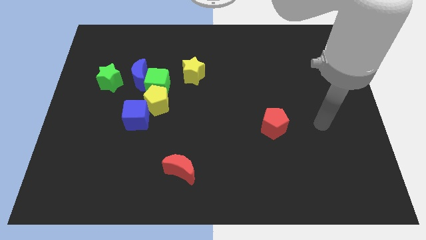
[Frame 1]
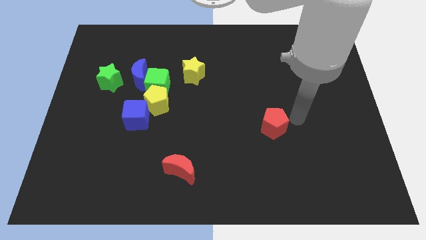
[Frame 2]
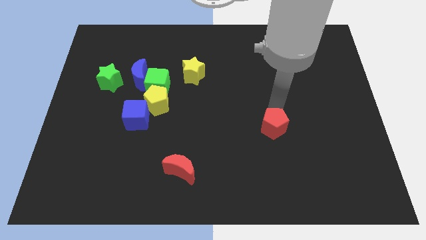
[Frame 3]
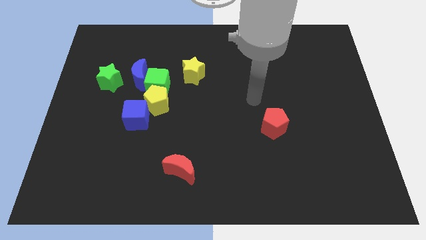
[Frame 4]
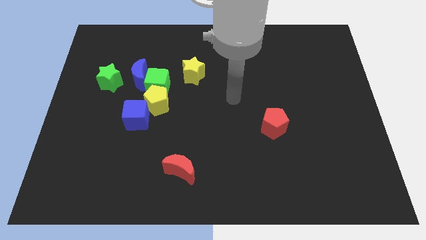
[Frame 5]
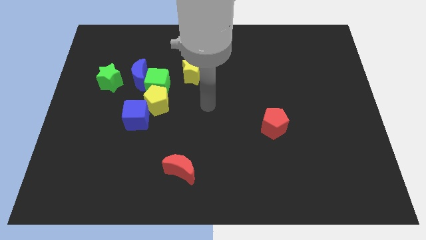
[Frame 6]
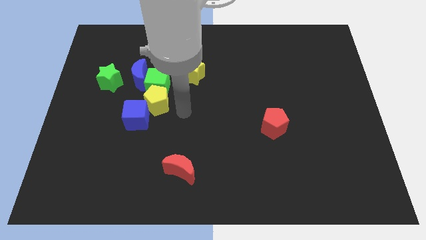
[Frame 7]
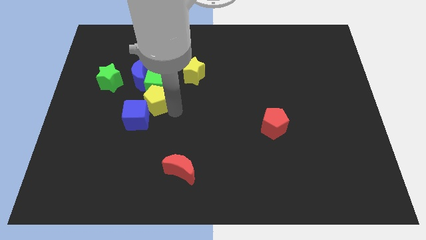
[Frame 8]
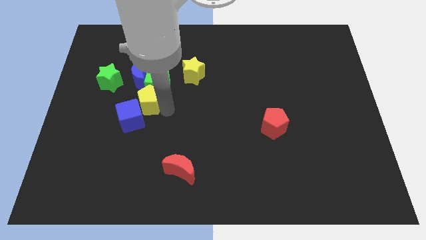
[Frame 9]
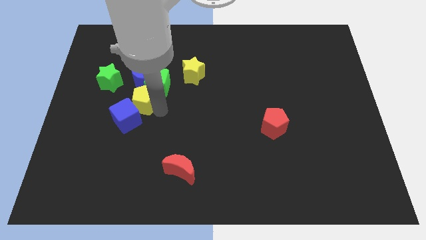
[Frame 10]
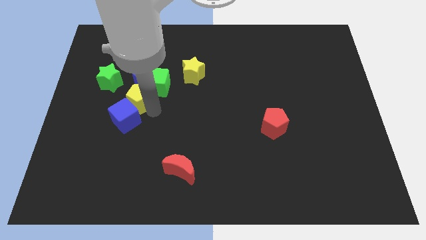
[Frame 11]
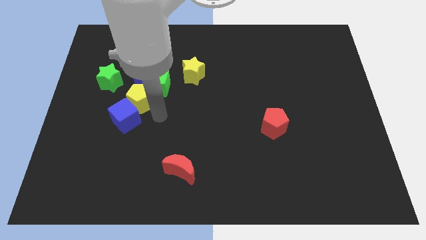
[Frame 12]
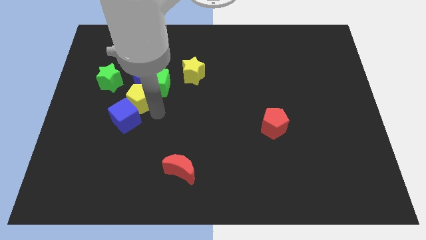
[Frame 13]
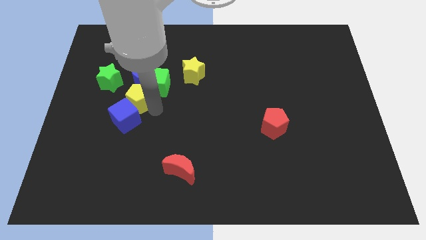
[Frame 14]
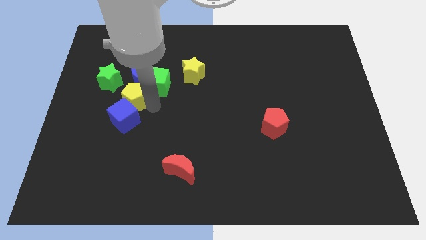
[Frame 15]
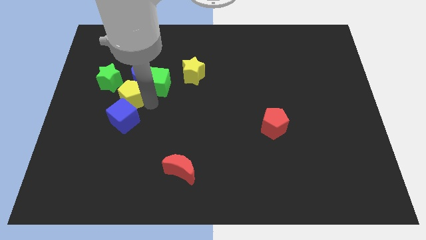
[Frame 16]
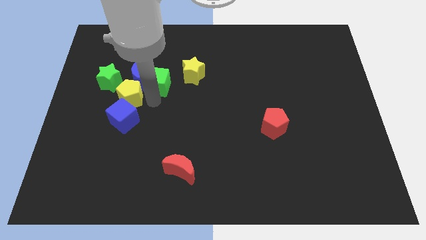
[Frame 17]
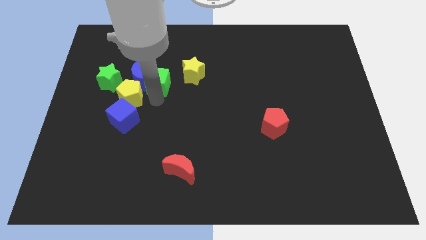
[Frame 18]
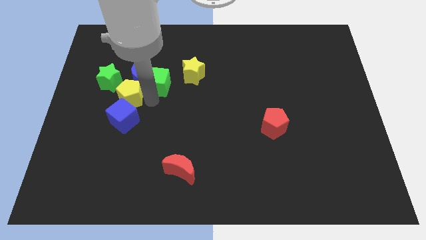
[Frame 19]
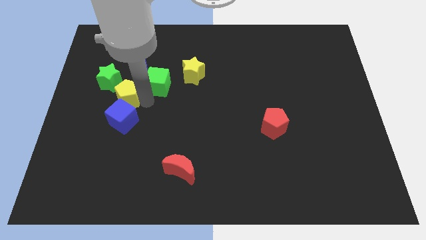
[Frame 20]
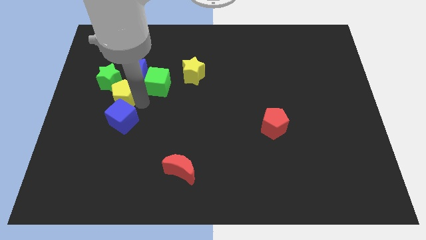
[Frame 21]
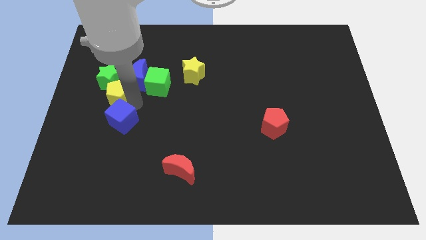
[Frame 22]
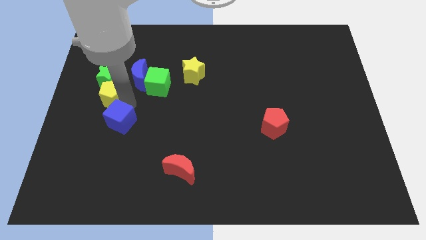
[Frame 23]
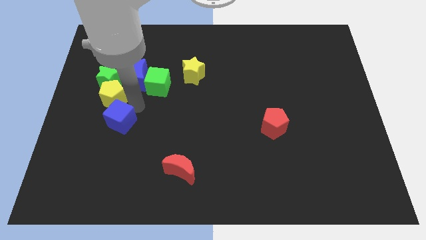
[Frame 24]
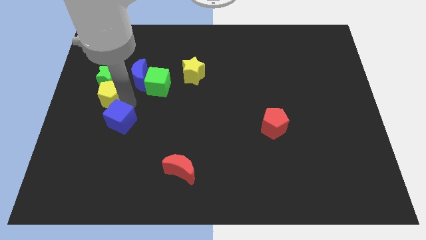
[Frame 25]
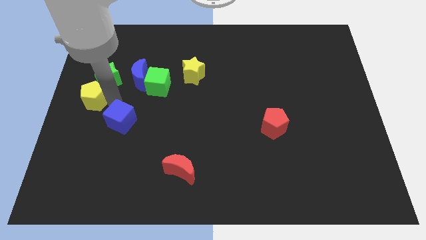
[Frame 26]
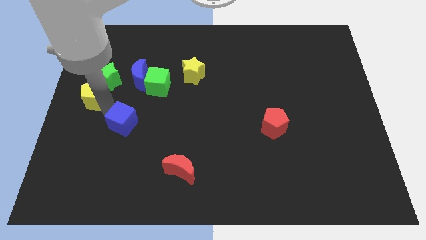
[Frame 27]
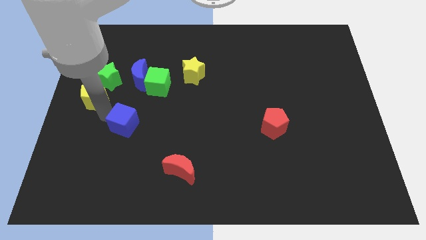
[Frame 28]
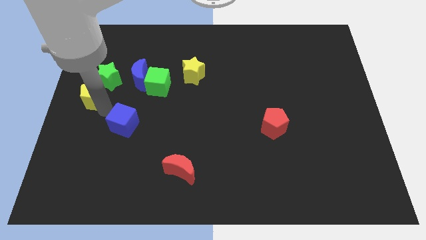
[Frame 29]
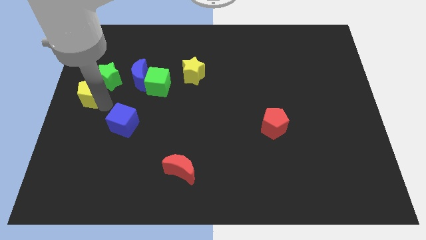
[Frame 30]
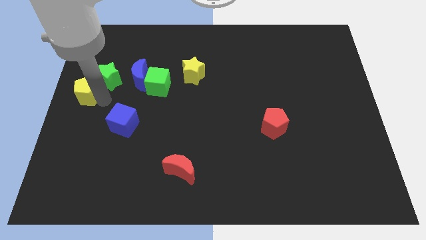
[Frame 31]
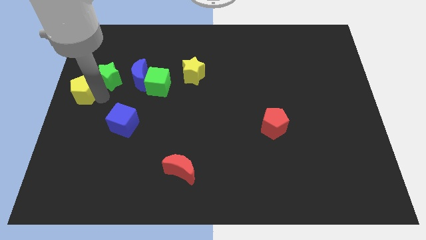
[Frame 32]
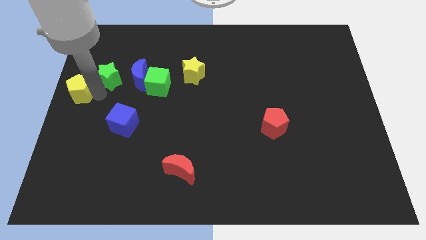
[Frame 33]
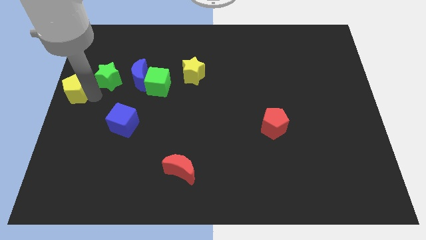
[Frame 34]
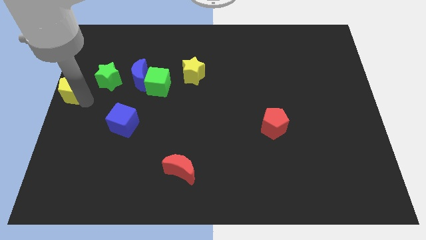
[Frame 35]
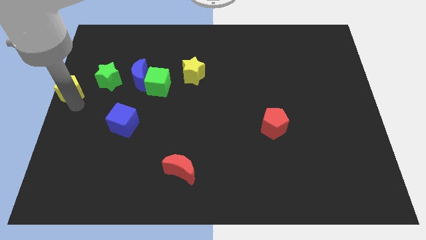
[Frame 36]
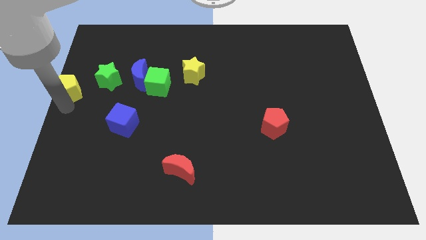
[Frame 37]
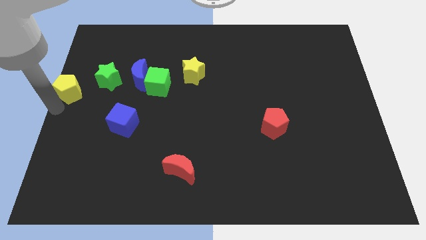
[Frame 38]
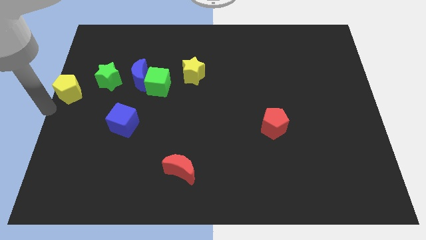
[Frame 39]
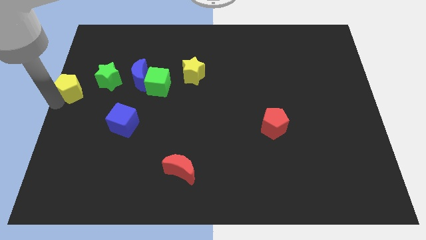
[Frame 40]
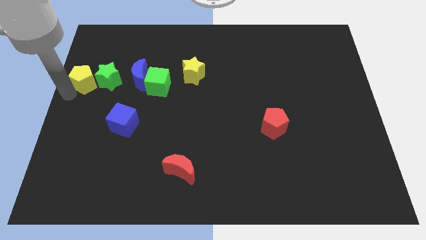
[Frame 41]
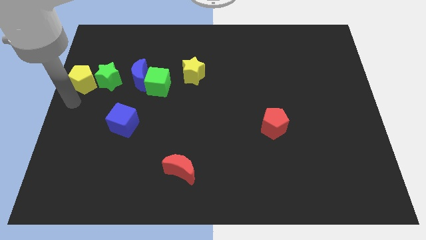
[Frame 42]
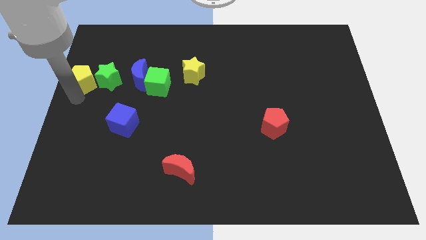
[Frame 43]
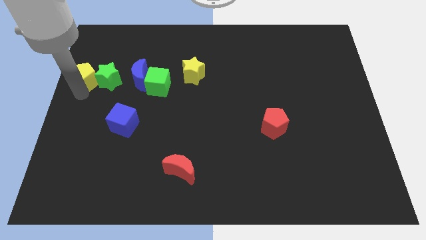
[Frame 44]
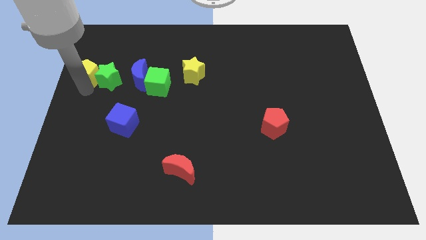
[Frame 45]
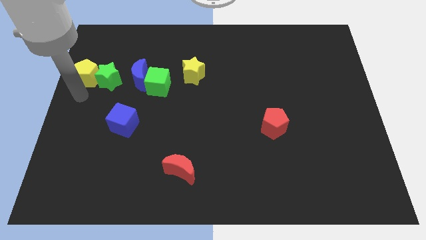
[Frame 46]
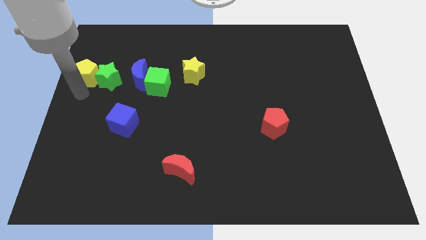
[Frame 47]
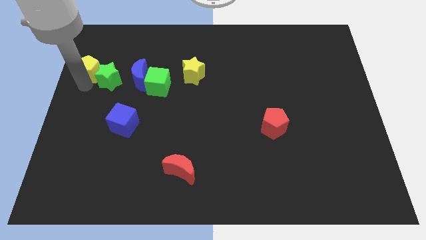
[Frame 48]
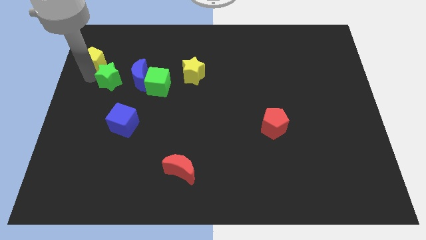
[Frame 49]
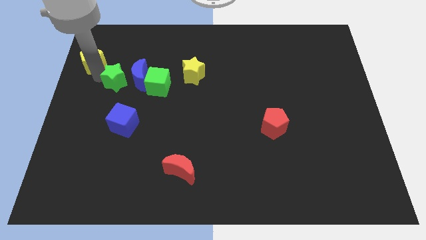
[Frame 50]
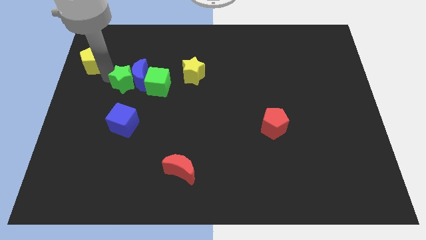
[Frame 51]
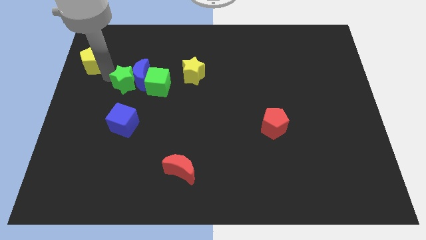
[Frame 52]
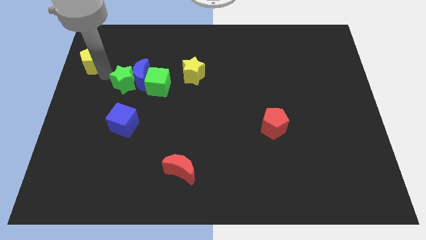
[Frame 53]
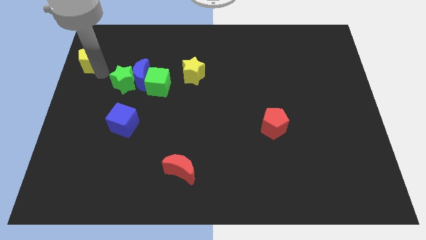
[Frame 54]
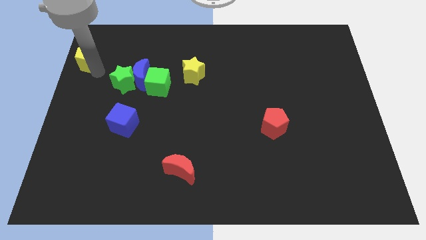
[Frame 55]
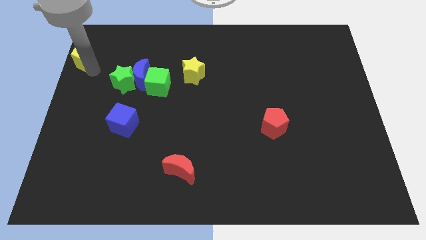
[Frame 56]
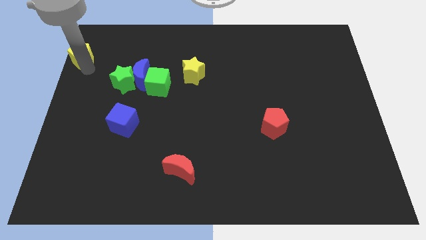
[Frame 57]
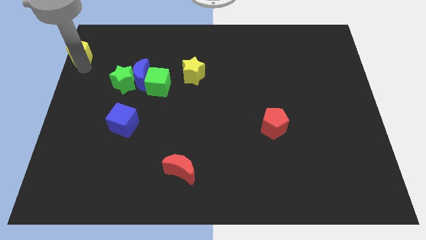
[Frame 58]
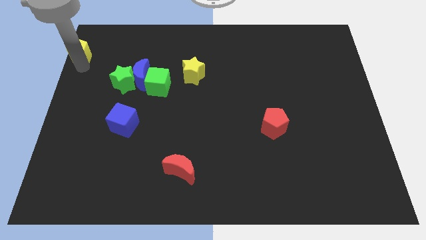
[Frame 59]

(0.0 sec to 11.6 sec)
push the yellow pentagon to the top left corner

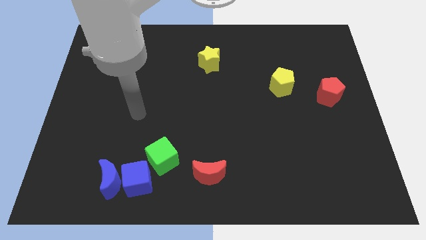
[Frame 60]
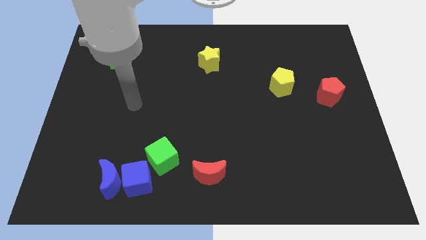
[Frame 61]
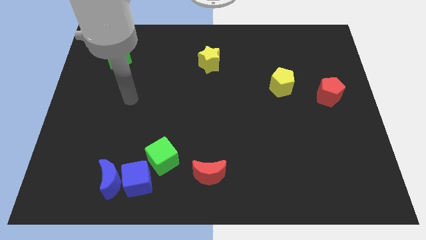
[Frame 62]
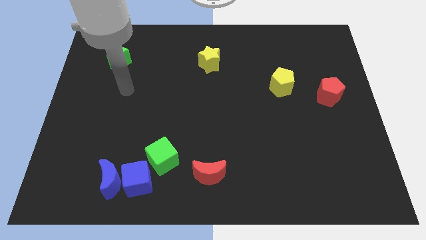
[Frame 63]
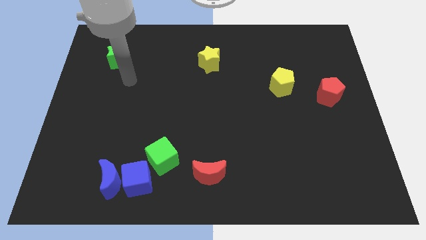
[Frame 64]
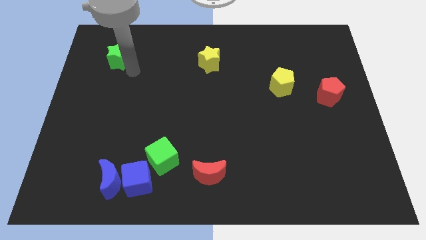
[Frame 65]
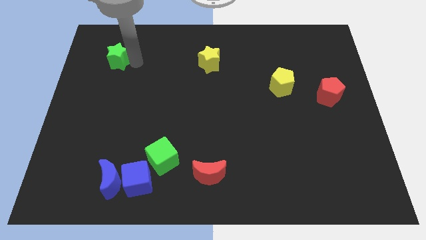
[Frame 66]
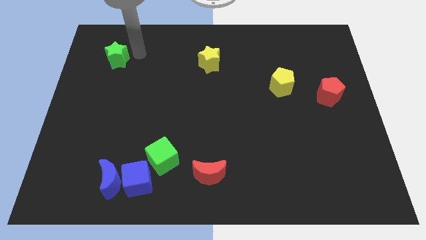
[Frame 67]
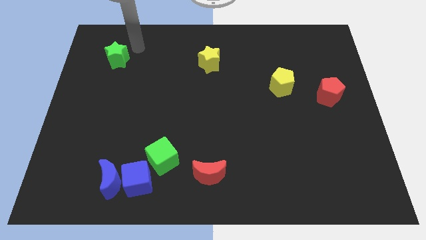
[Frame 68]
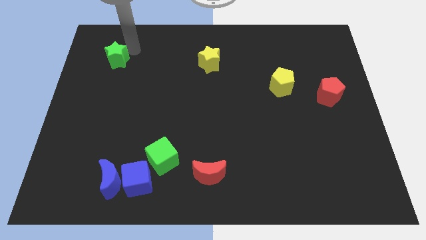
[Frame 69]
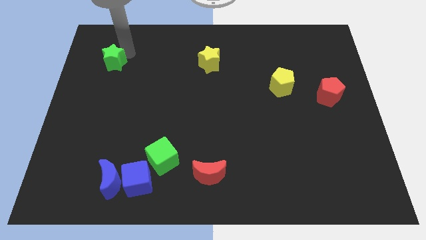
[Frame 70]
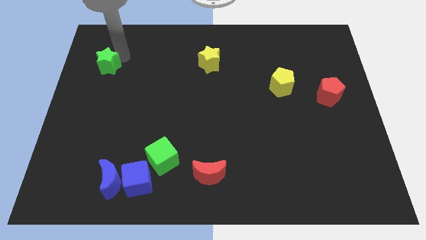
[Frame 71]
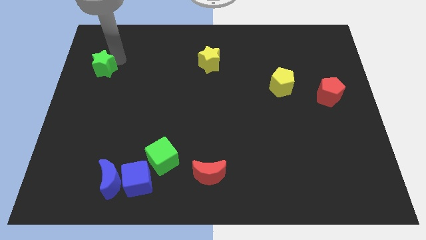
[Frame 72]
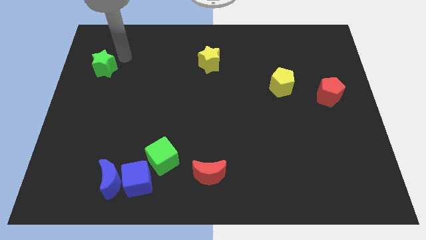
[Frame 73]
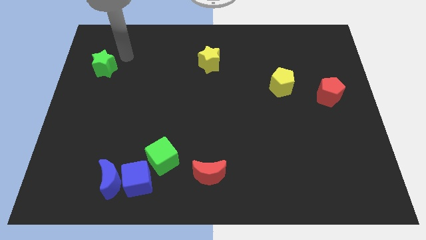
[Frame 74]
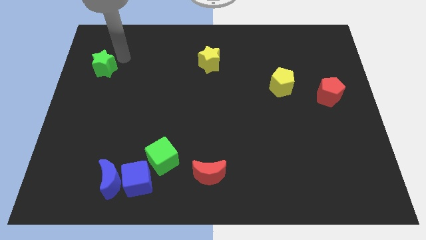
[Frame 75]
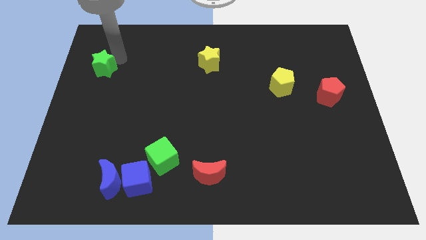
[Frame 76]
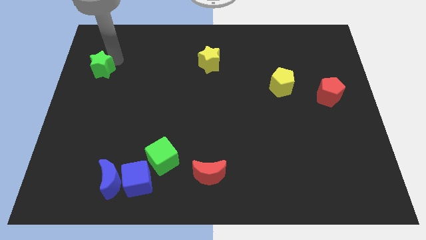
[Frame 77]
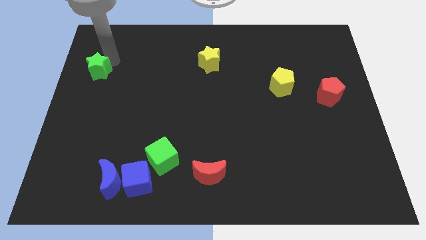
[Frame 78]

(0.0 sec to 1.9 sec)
slide the green star to the center left
